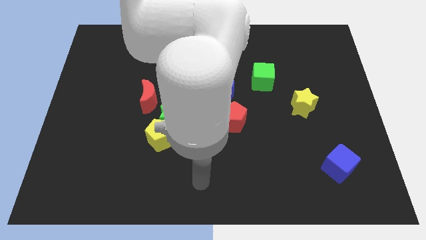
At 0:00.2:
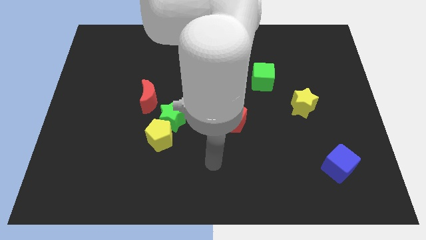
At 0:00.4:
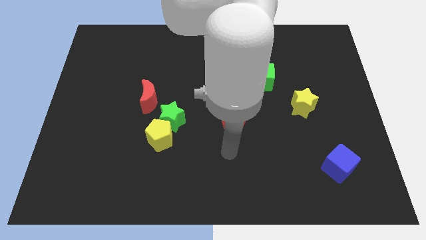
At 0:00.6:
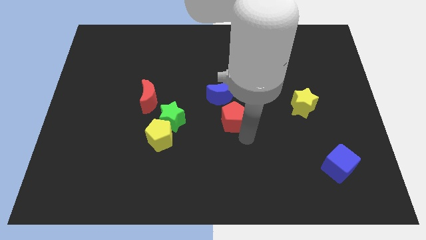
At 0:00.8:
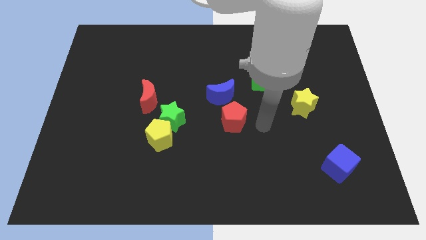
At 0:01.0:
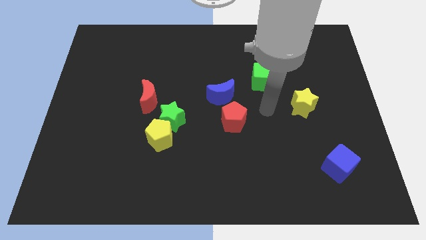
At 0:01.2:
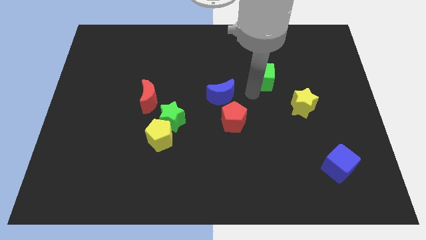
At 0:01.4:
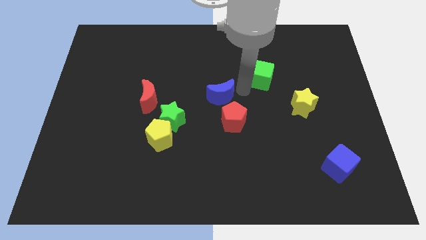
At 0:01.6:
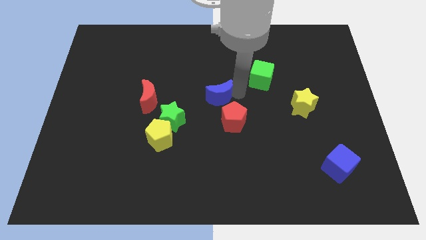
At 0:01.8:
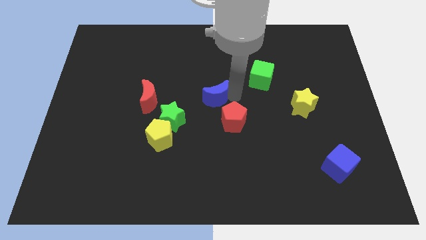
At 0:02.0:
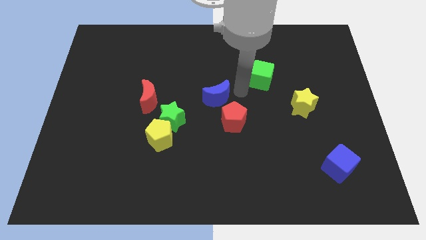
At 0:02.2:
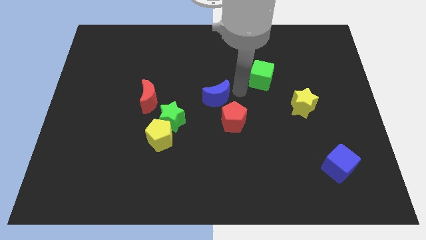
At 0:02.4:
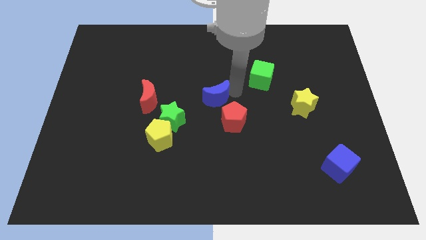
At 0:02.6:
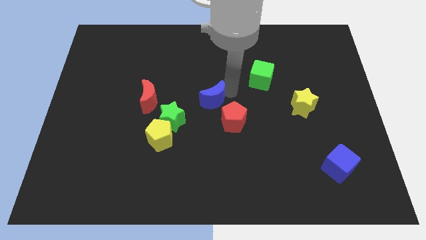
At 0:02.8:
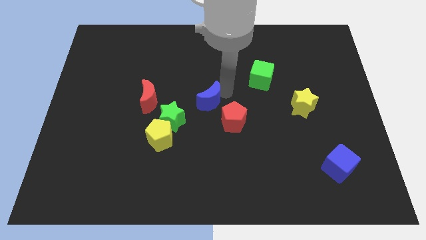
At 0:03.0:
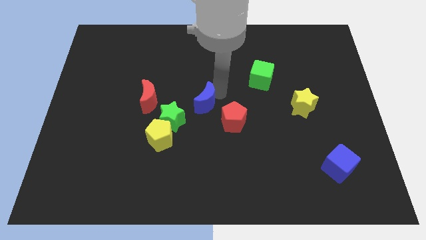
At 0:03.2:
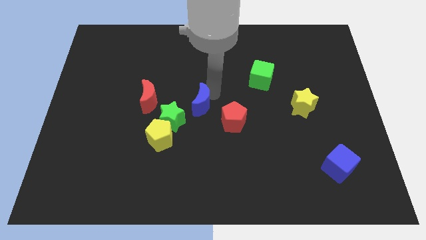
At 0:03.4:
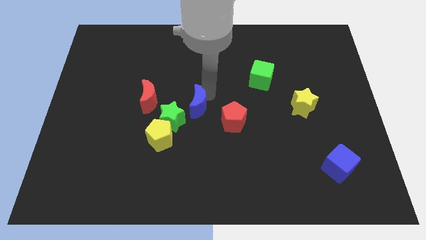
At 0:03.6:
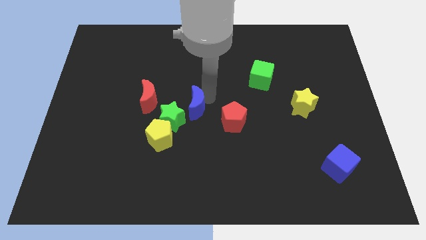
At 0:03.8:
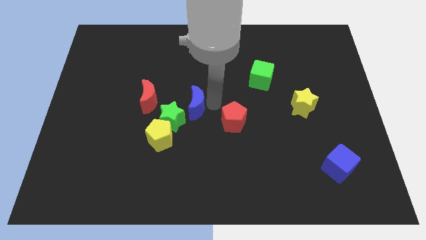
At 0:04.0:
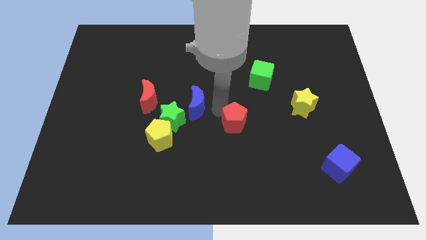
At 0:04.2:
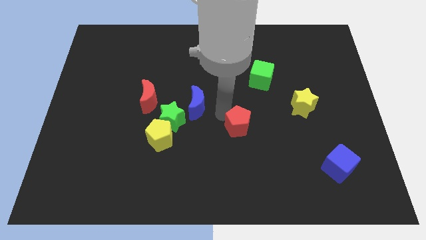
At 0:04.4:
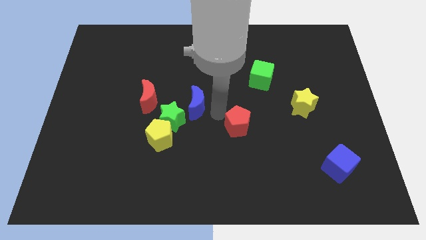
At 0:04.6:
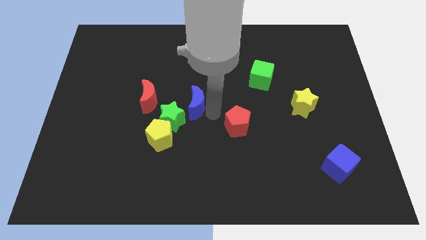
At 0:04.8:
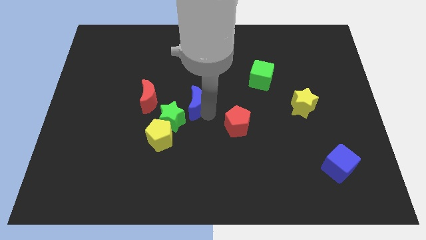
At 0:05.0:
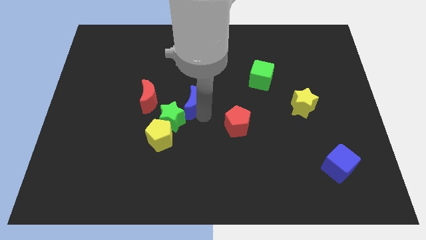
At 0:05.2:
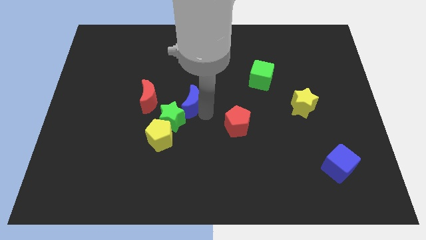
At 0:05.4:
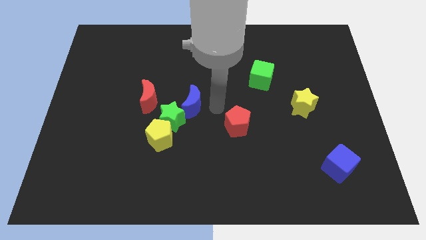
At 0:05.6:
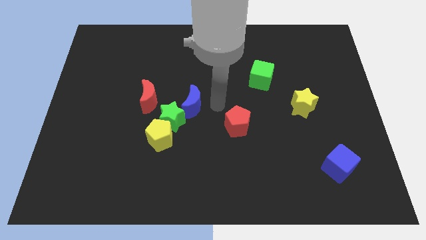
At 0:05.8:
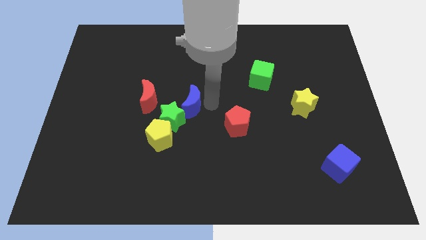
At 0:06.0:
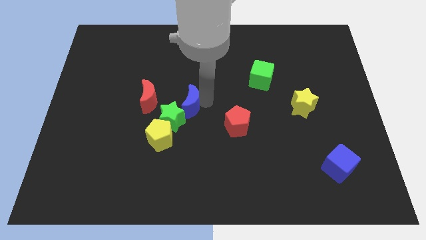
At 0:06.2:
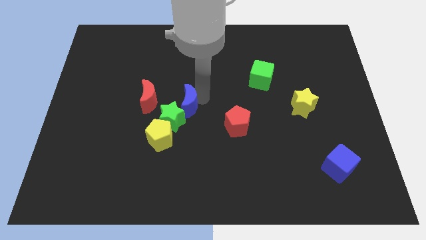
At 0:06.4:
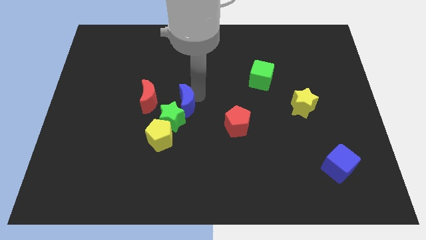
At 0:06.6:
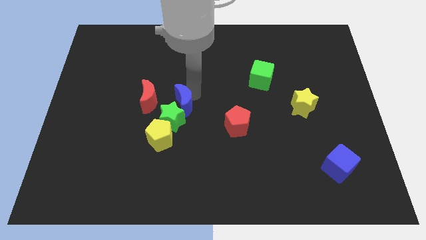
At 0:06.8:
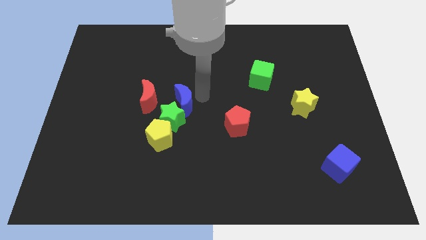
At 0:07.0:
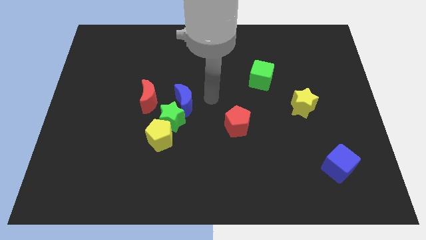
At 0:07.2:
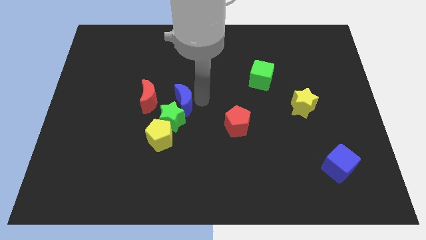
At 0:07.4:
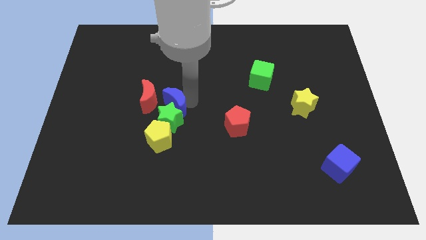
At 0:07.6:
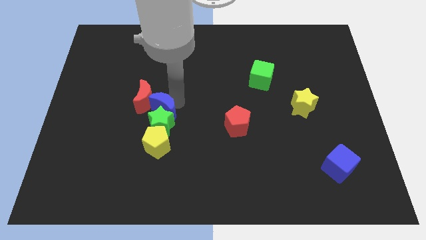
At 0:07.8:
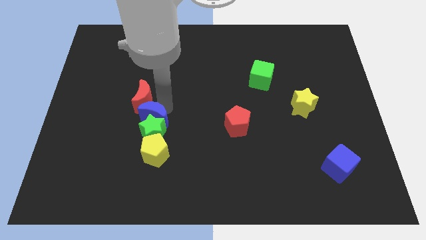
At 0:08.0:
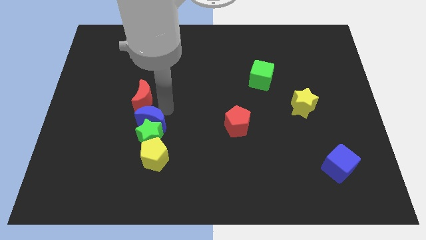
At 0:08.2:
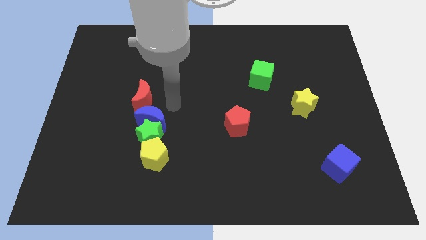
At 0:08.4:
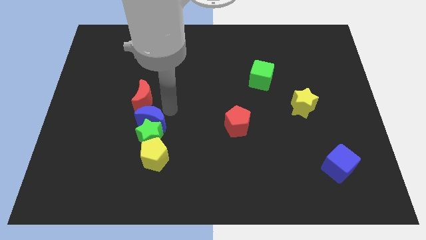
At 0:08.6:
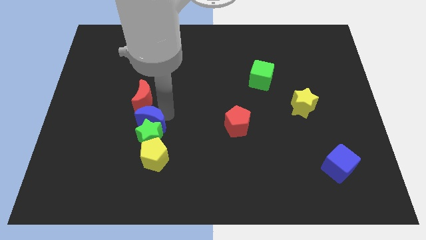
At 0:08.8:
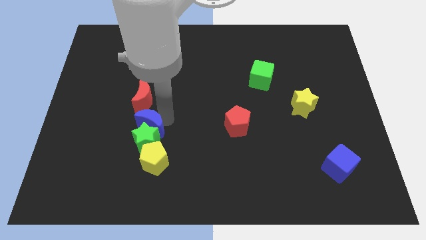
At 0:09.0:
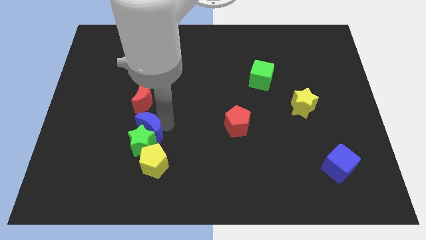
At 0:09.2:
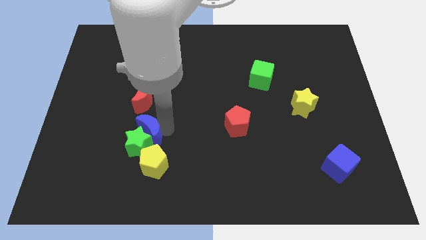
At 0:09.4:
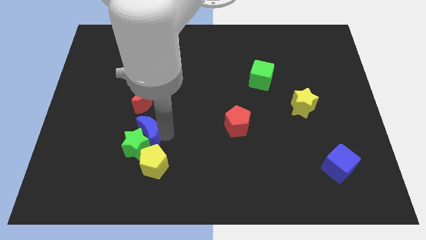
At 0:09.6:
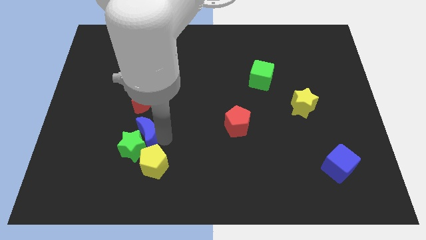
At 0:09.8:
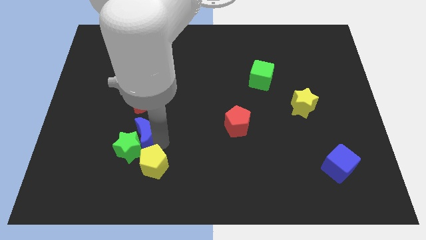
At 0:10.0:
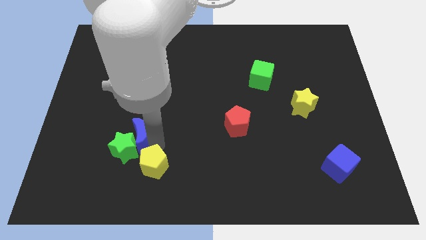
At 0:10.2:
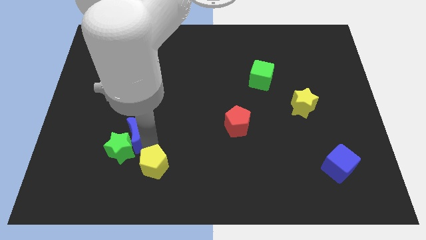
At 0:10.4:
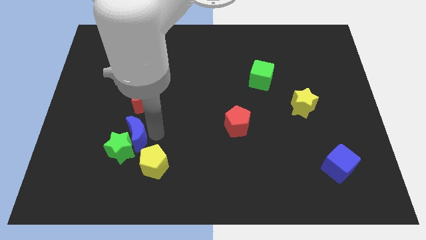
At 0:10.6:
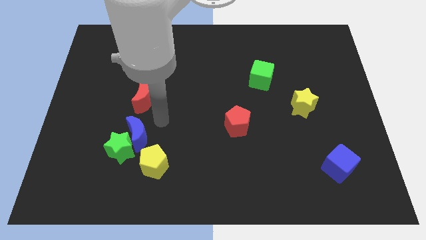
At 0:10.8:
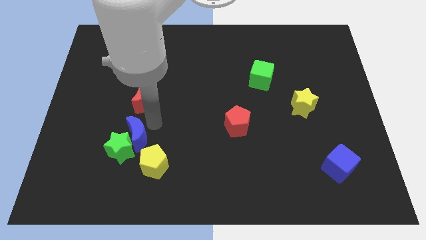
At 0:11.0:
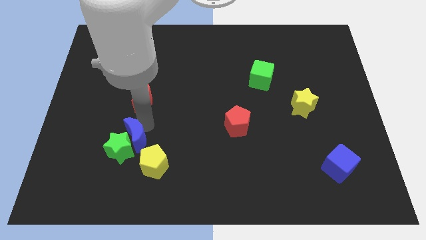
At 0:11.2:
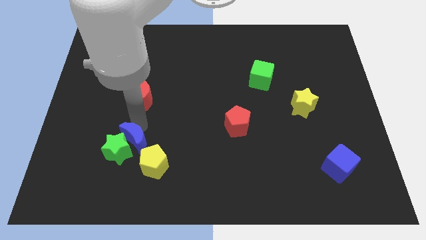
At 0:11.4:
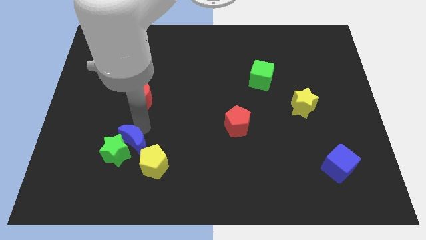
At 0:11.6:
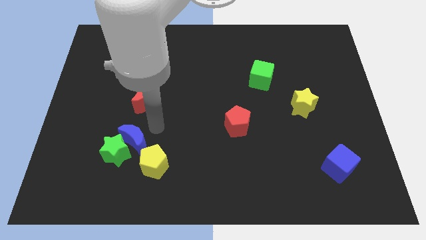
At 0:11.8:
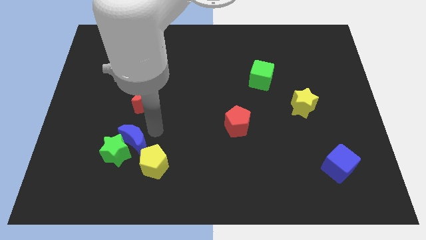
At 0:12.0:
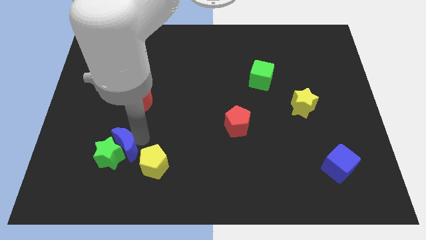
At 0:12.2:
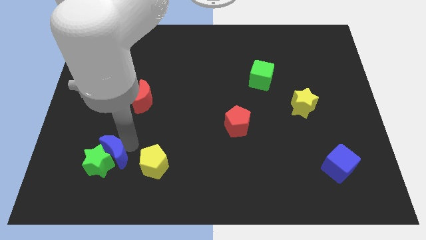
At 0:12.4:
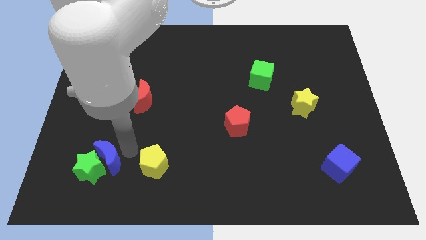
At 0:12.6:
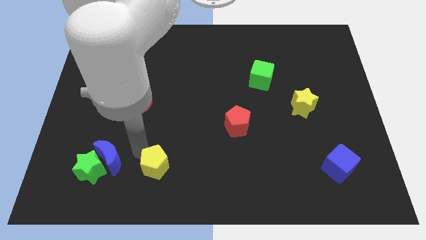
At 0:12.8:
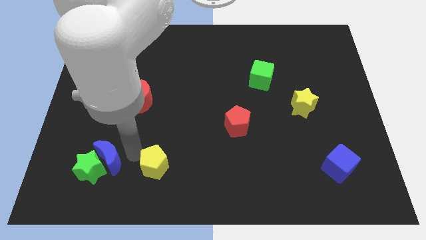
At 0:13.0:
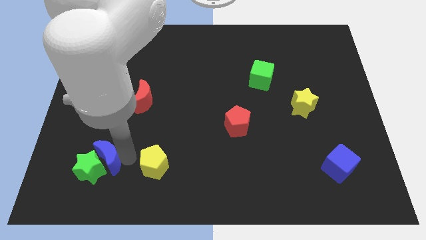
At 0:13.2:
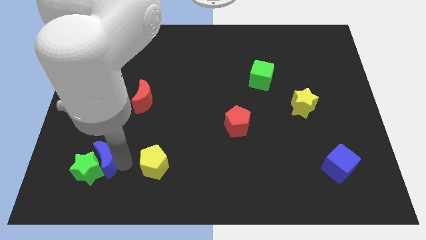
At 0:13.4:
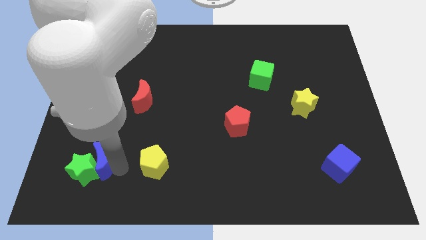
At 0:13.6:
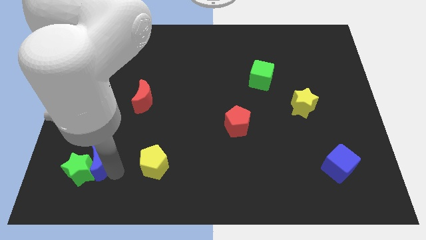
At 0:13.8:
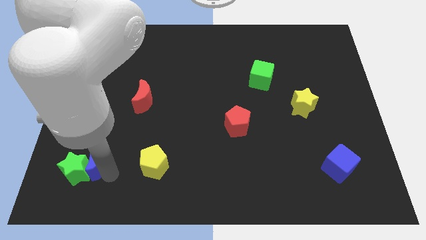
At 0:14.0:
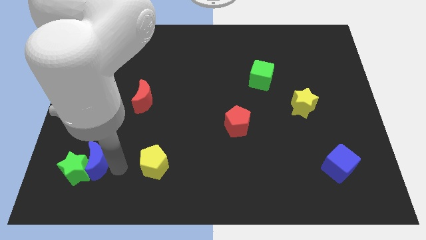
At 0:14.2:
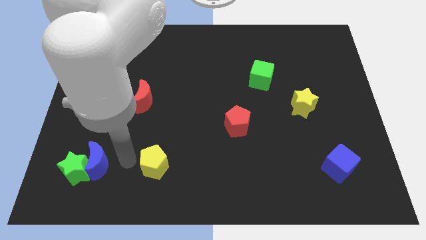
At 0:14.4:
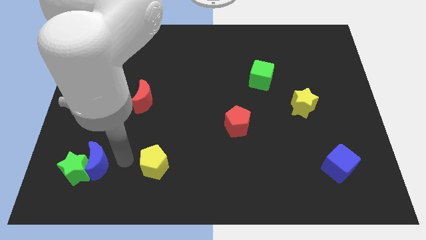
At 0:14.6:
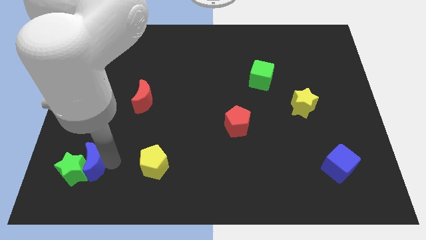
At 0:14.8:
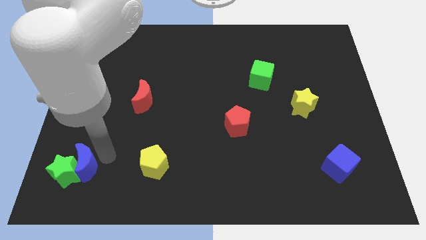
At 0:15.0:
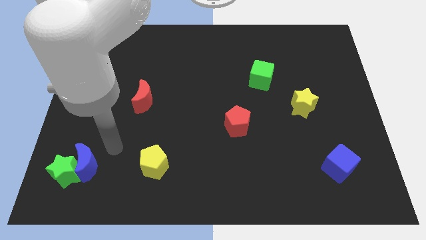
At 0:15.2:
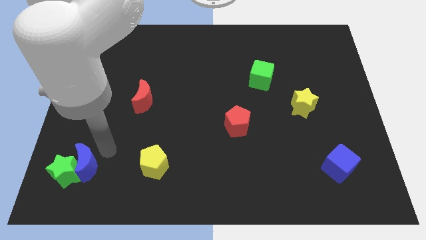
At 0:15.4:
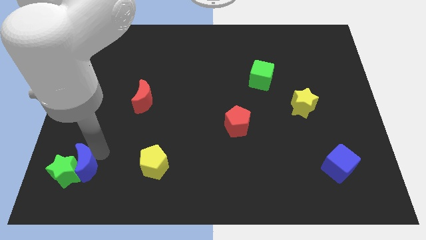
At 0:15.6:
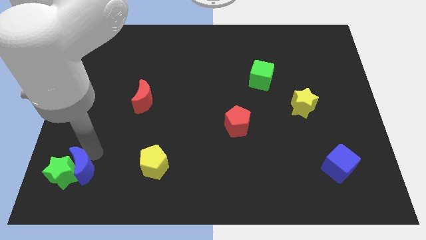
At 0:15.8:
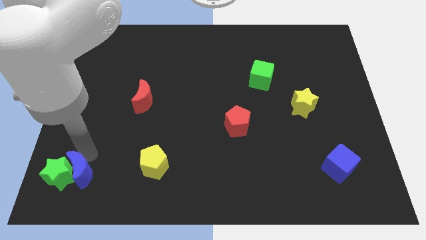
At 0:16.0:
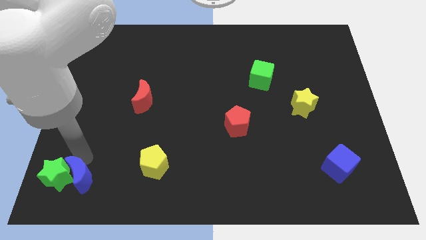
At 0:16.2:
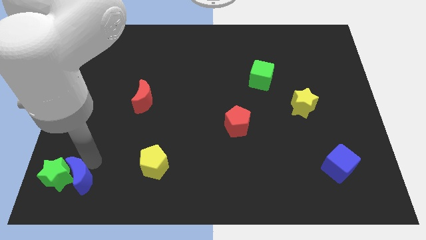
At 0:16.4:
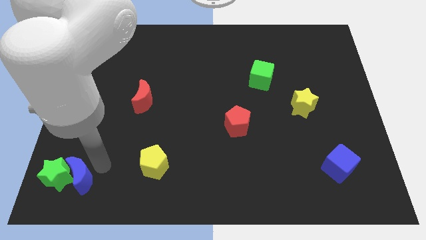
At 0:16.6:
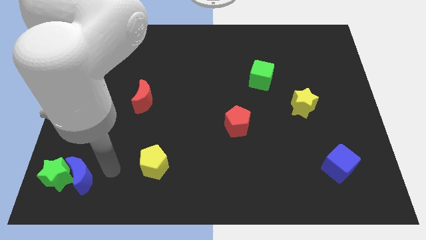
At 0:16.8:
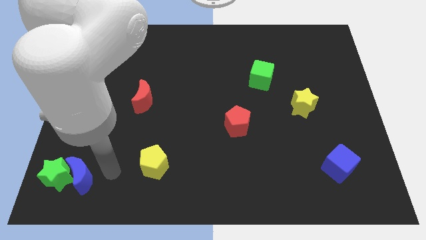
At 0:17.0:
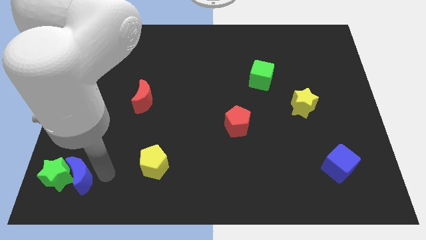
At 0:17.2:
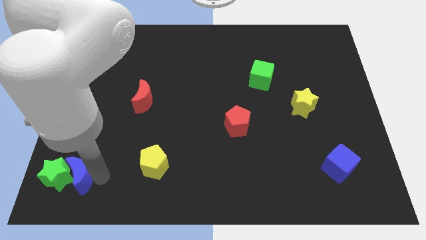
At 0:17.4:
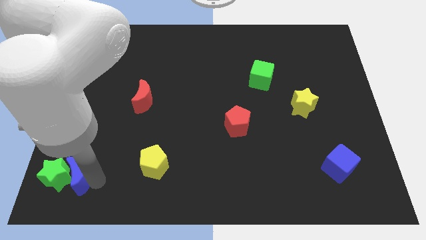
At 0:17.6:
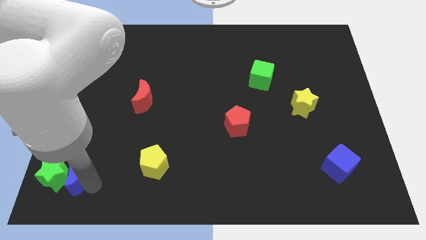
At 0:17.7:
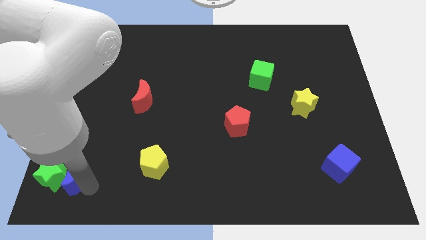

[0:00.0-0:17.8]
slide the blue moon to the bottom left of the board
